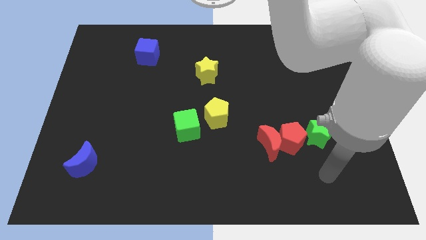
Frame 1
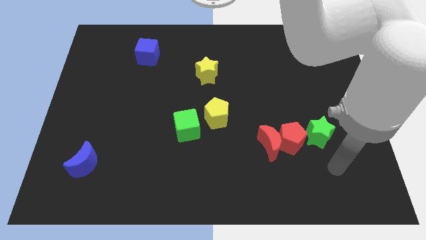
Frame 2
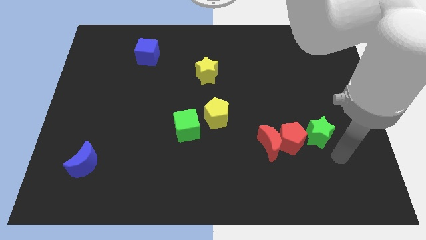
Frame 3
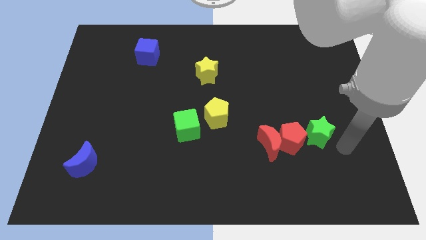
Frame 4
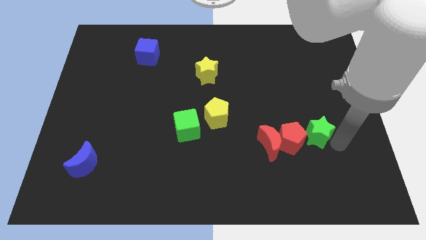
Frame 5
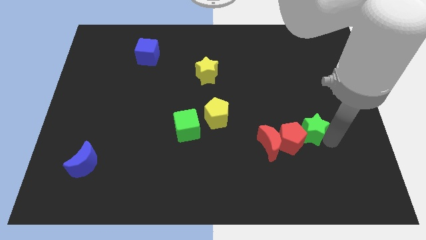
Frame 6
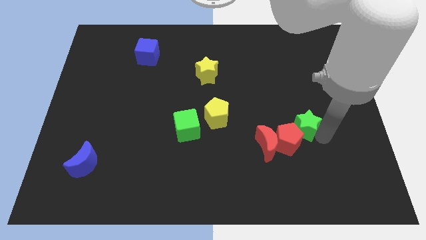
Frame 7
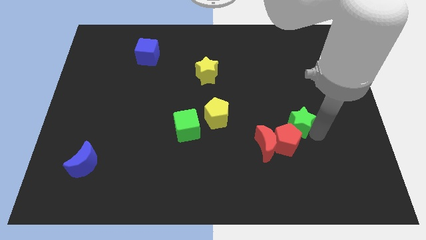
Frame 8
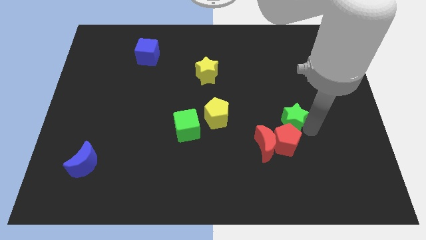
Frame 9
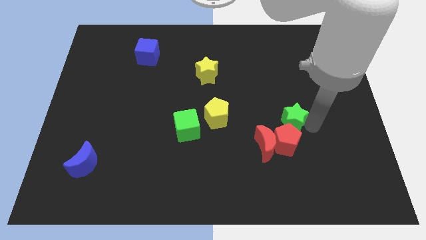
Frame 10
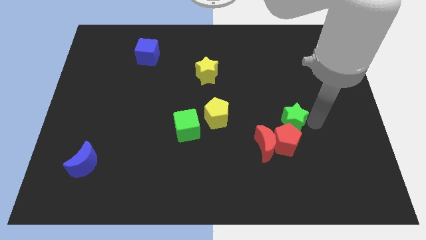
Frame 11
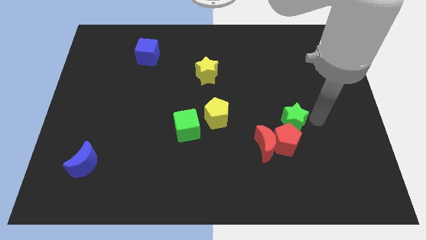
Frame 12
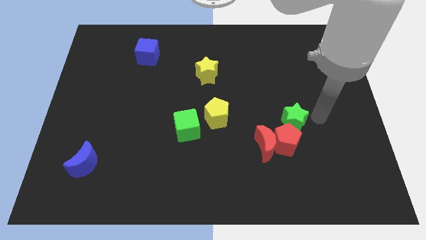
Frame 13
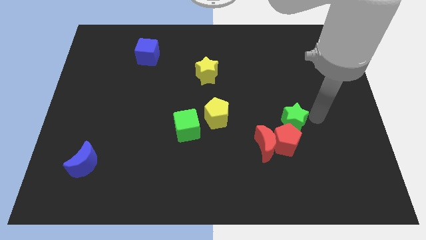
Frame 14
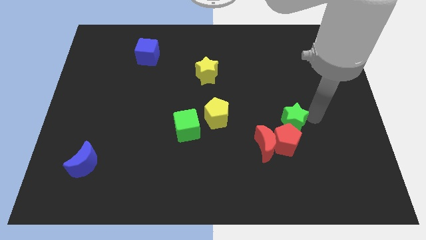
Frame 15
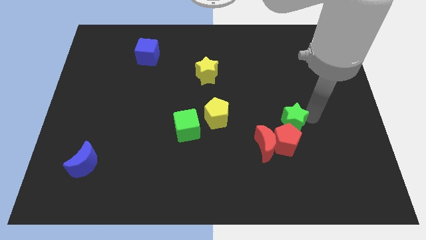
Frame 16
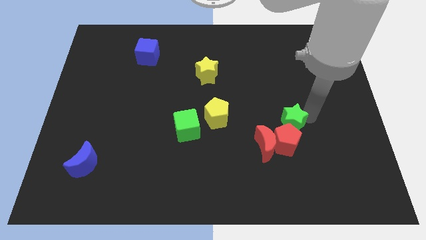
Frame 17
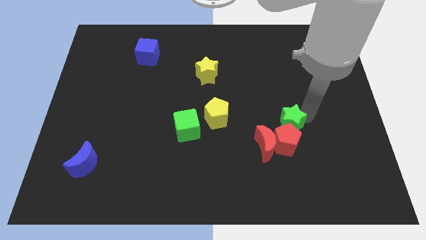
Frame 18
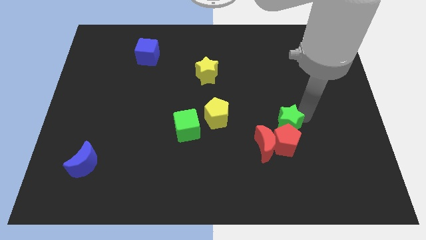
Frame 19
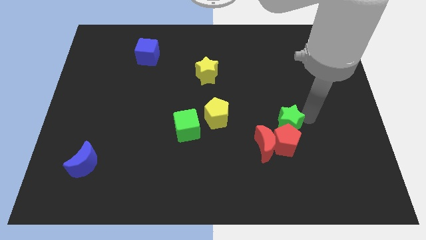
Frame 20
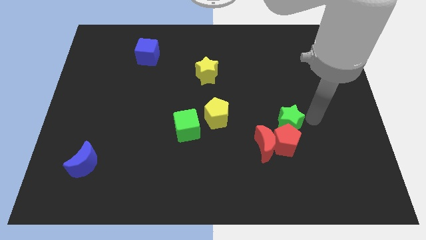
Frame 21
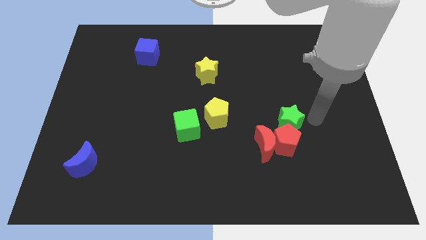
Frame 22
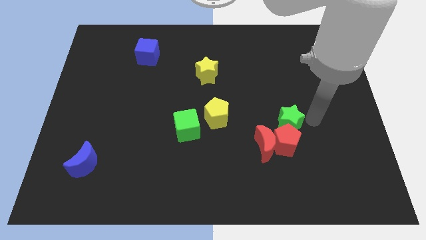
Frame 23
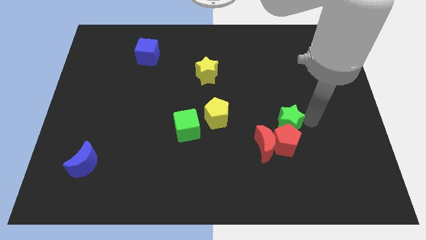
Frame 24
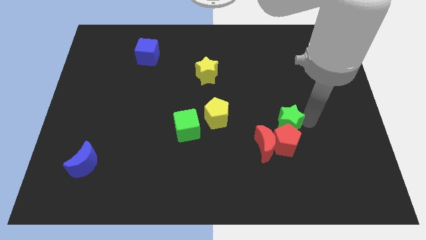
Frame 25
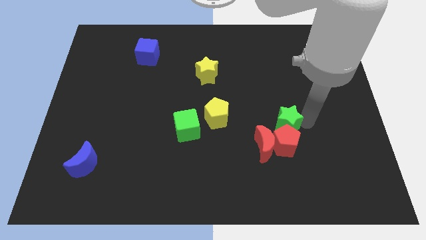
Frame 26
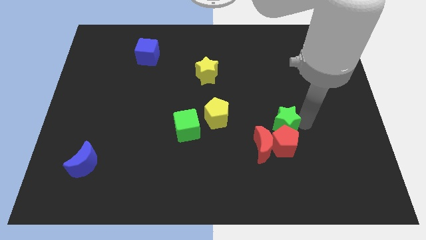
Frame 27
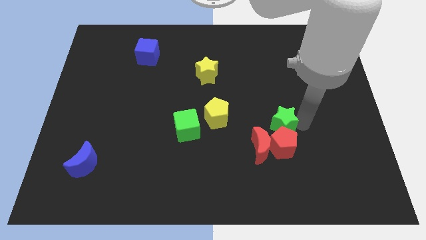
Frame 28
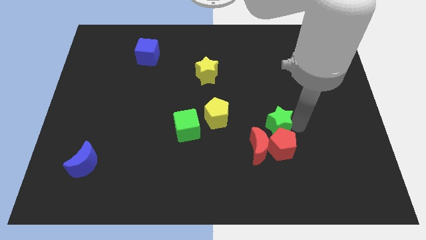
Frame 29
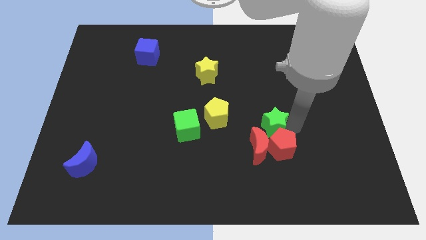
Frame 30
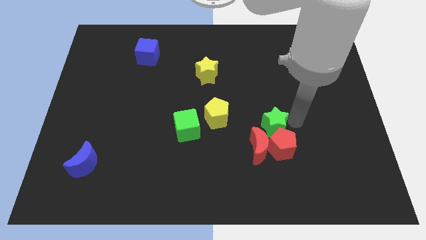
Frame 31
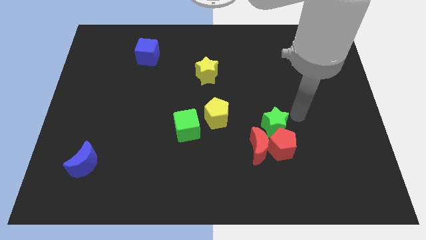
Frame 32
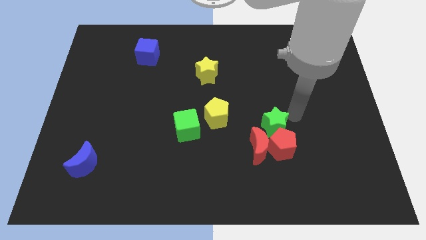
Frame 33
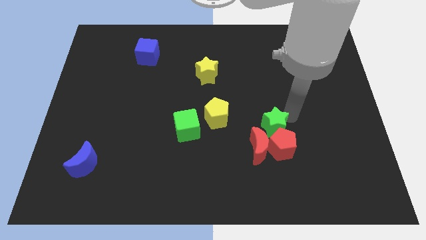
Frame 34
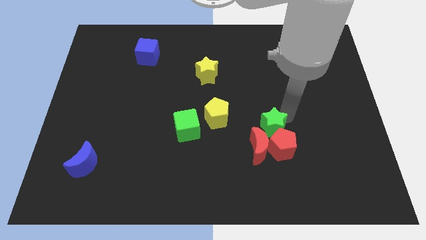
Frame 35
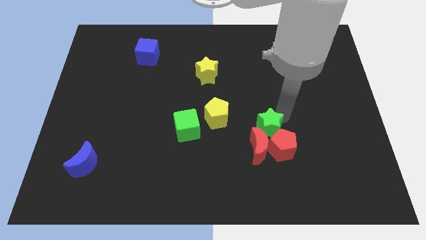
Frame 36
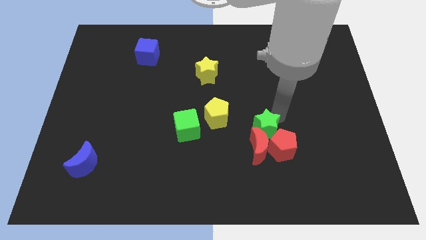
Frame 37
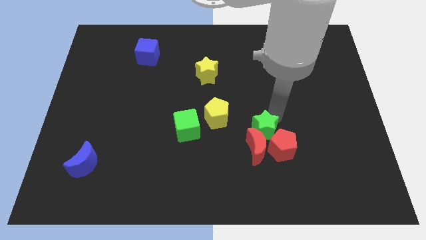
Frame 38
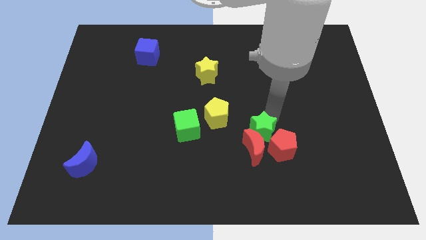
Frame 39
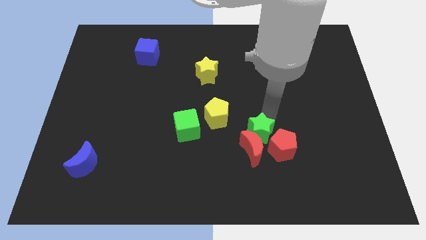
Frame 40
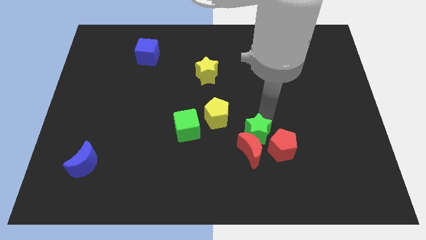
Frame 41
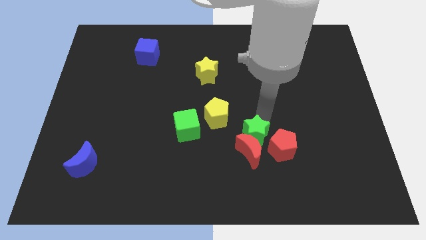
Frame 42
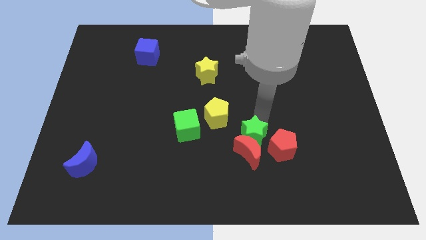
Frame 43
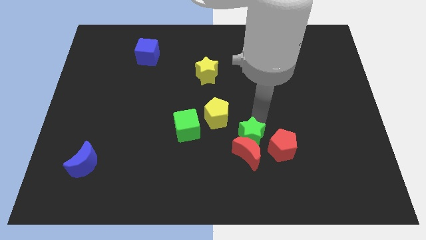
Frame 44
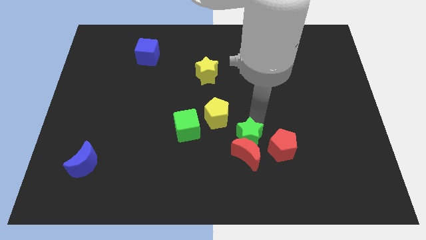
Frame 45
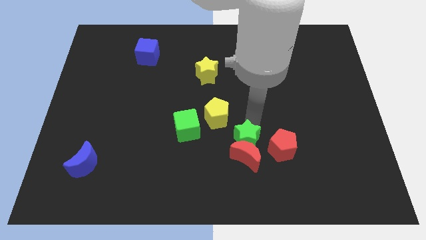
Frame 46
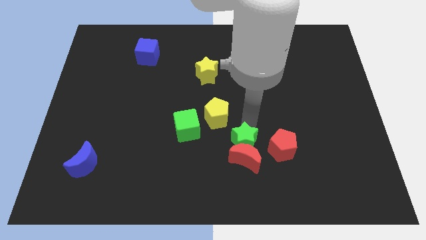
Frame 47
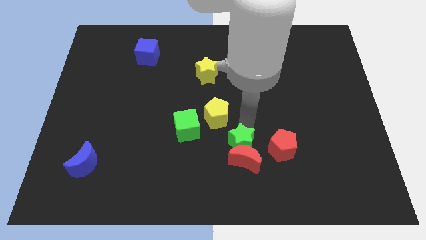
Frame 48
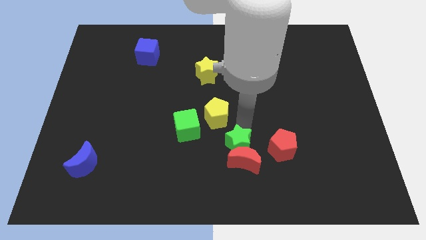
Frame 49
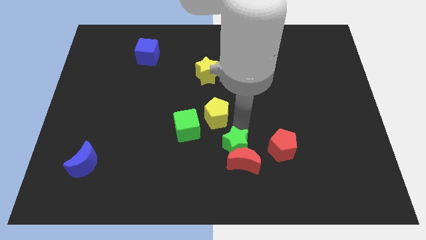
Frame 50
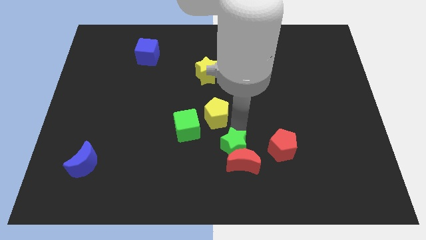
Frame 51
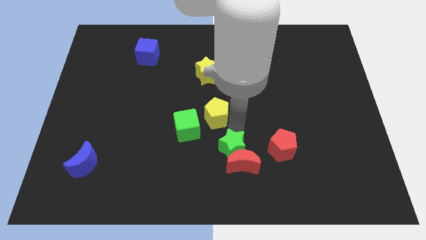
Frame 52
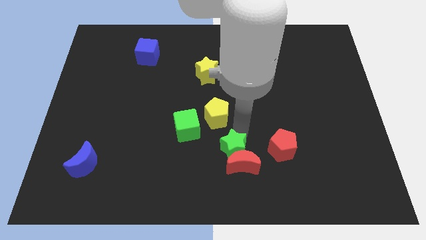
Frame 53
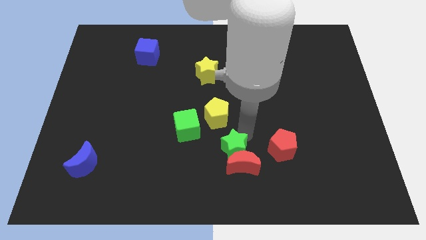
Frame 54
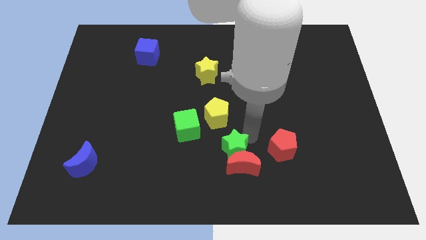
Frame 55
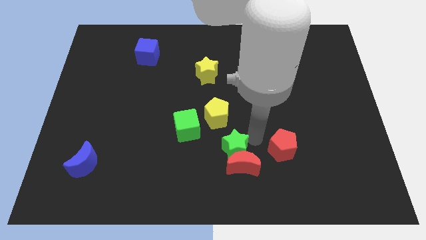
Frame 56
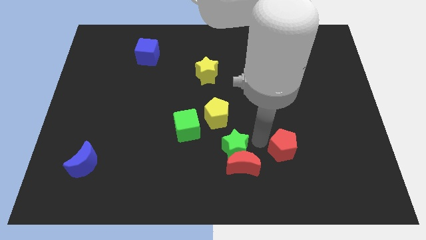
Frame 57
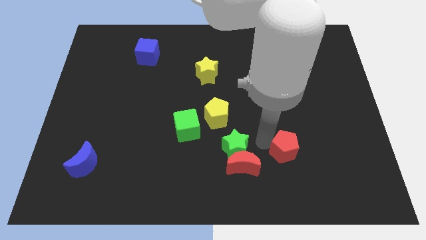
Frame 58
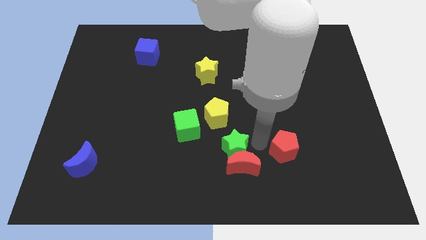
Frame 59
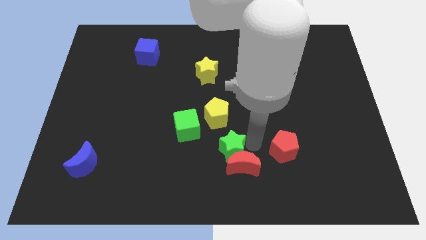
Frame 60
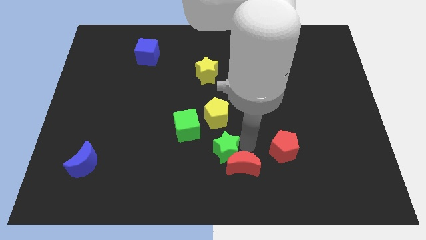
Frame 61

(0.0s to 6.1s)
push the green star left

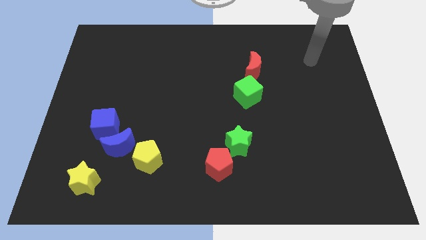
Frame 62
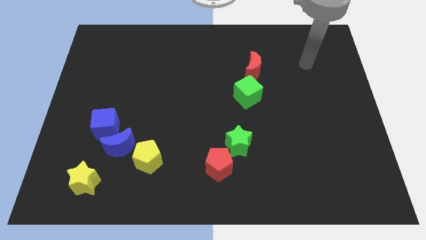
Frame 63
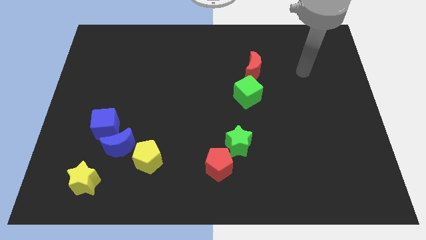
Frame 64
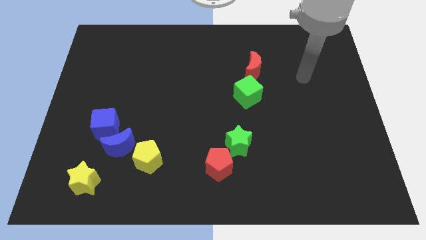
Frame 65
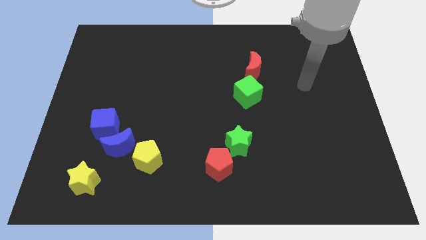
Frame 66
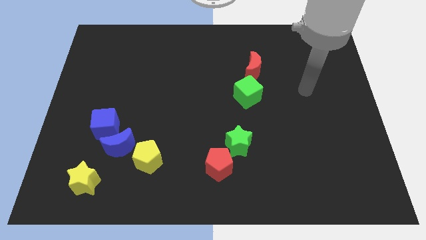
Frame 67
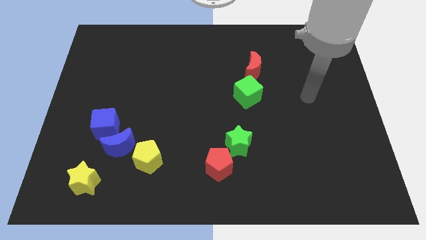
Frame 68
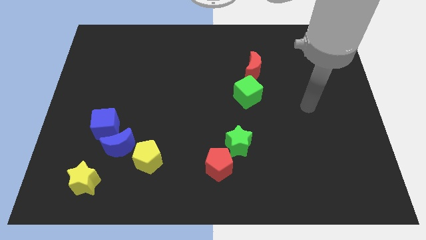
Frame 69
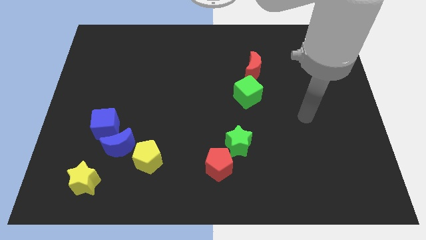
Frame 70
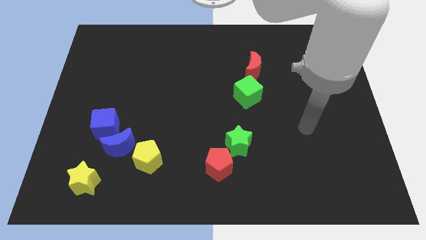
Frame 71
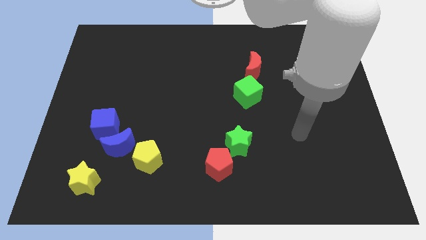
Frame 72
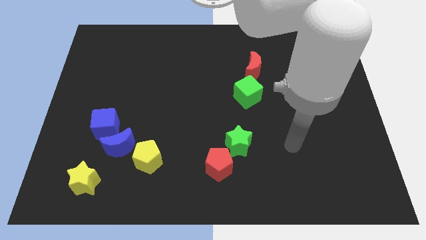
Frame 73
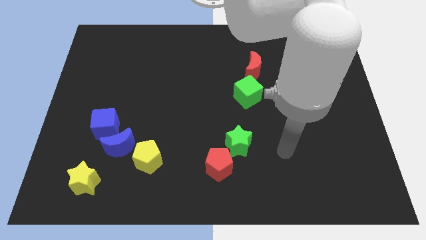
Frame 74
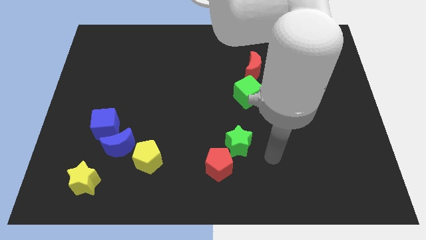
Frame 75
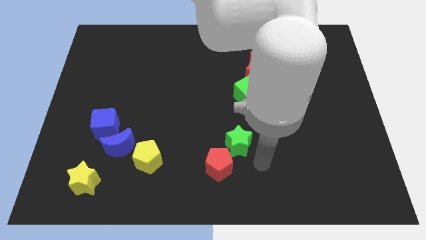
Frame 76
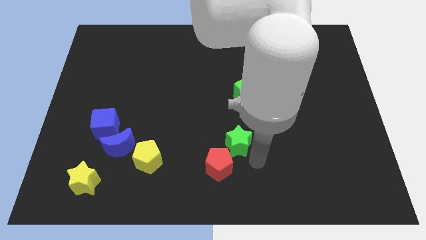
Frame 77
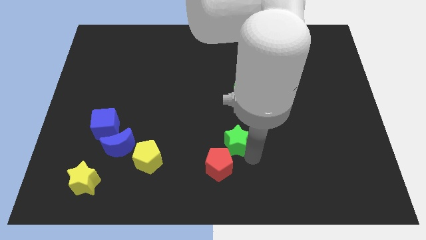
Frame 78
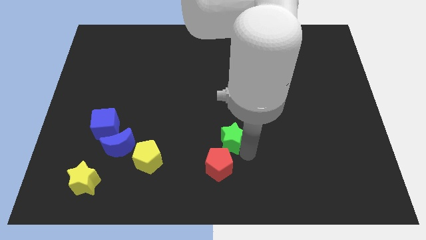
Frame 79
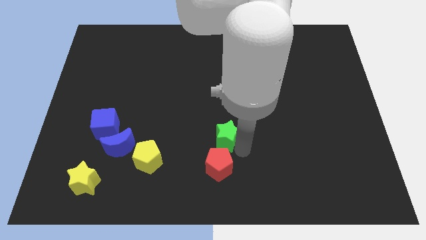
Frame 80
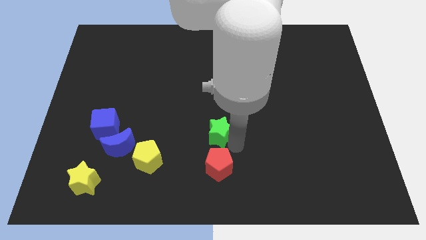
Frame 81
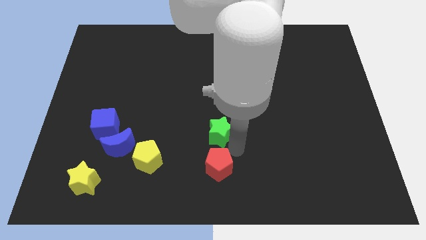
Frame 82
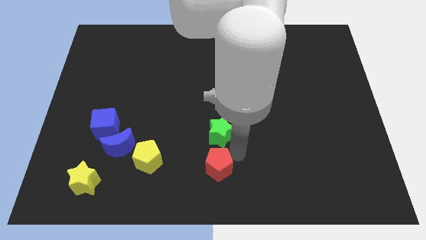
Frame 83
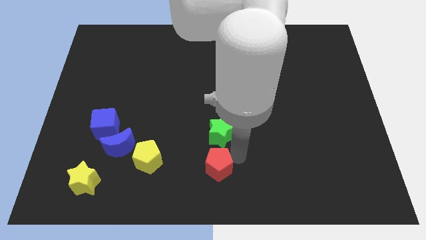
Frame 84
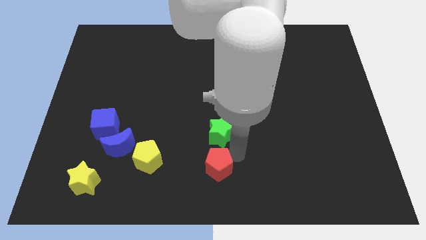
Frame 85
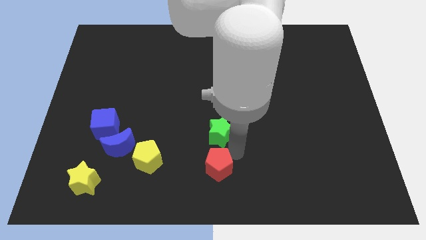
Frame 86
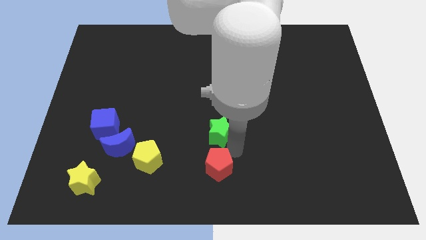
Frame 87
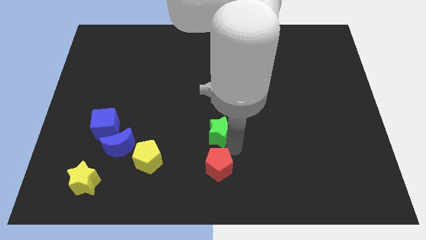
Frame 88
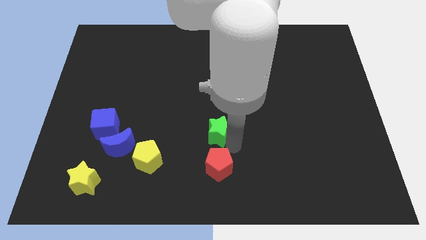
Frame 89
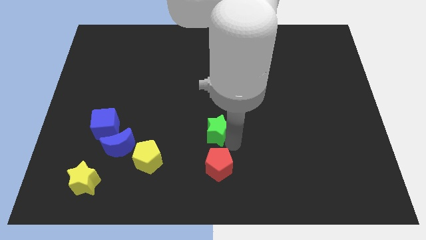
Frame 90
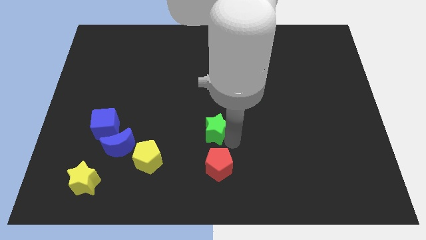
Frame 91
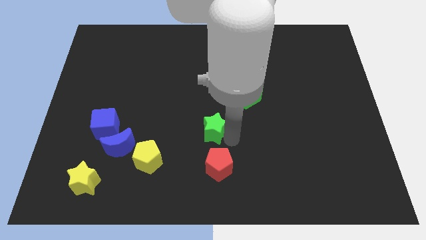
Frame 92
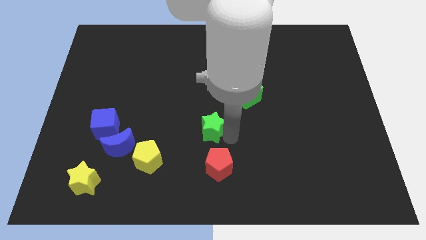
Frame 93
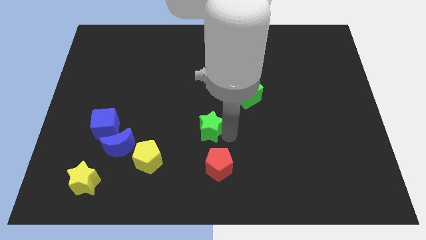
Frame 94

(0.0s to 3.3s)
move the green star a little up and to the left diagonally
